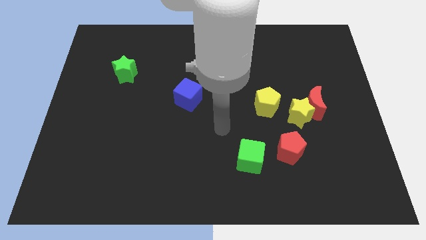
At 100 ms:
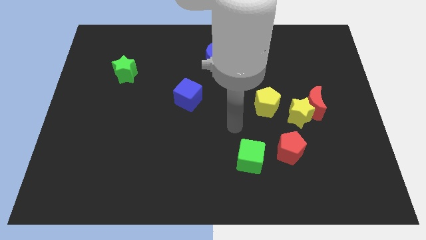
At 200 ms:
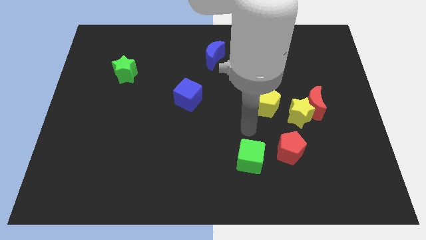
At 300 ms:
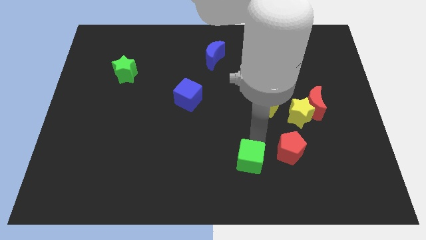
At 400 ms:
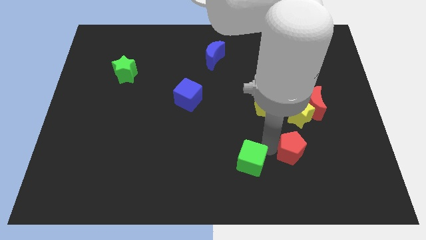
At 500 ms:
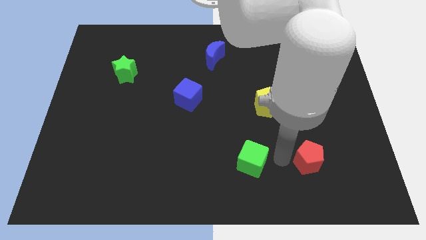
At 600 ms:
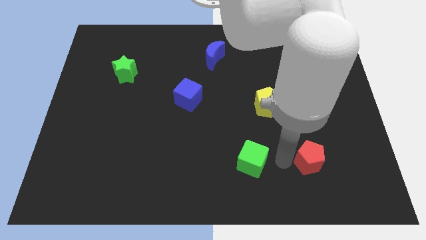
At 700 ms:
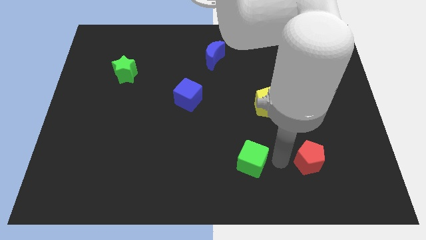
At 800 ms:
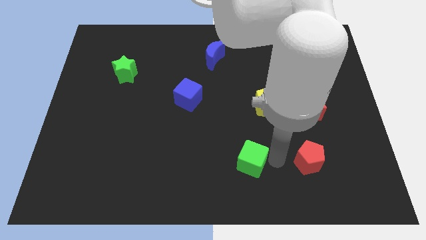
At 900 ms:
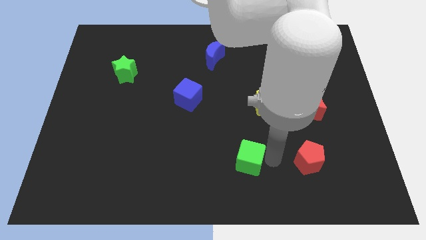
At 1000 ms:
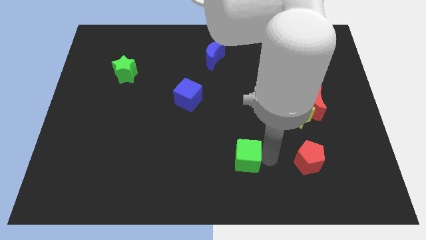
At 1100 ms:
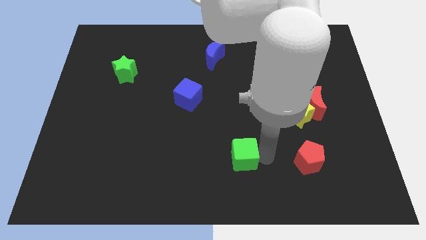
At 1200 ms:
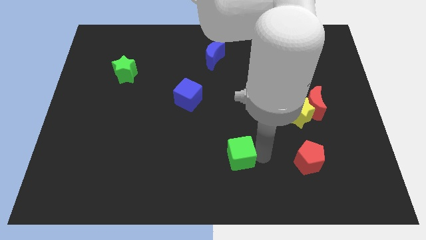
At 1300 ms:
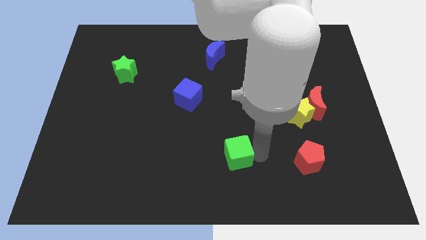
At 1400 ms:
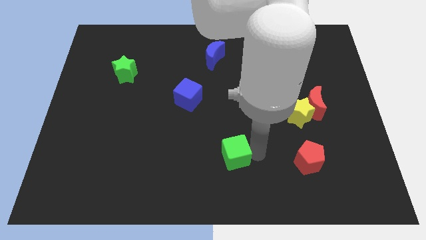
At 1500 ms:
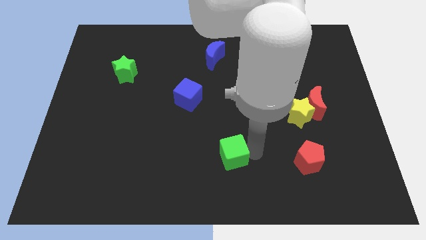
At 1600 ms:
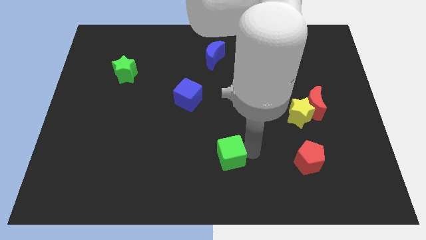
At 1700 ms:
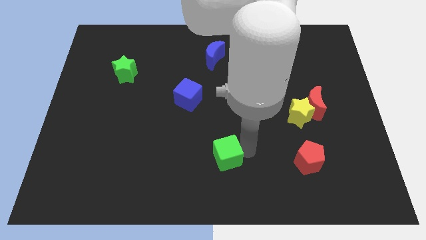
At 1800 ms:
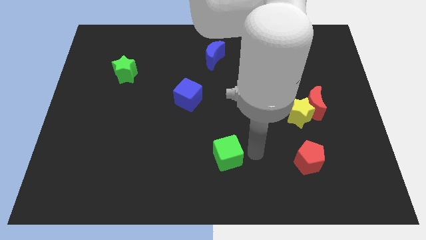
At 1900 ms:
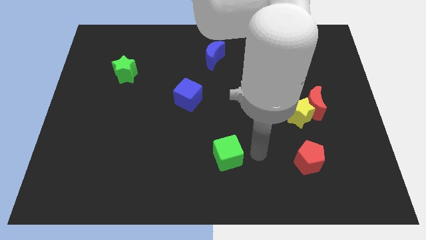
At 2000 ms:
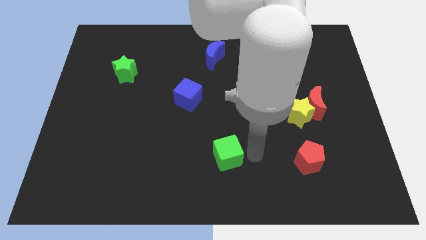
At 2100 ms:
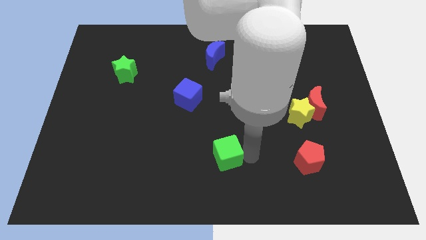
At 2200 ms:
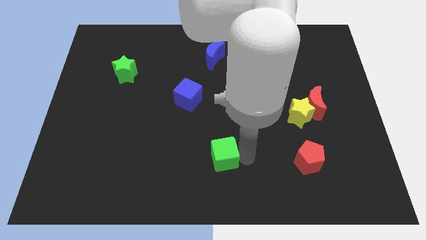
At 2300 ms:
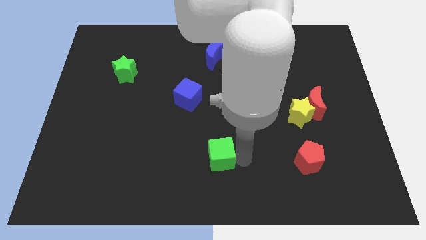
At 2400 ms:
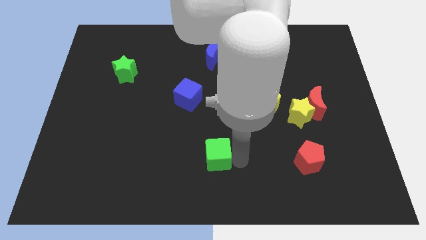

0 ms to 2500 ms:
push the green cube a little bit to the left

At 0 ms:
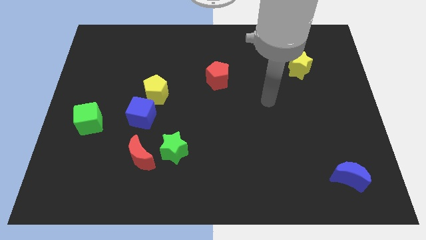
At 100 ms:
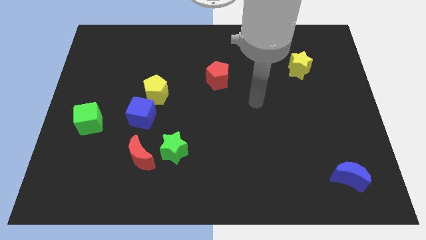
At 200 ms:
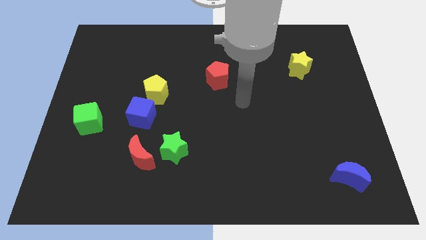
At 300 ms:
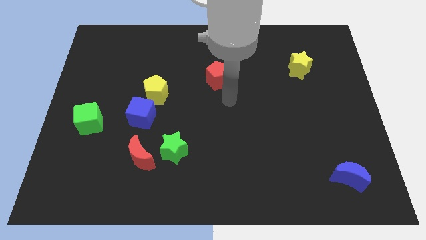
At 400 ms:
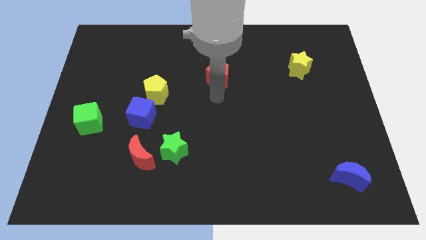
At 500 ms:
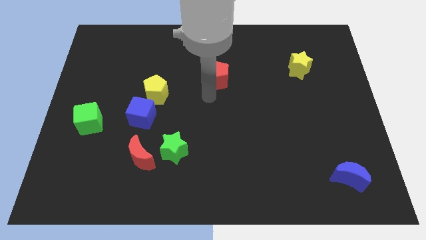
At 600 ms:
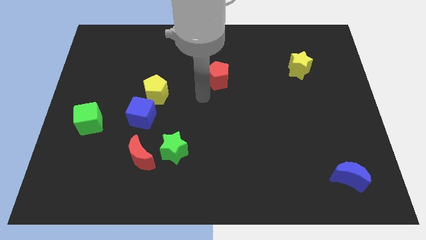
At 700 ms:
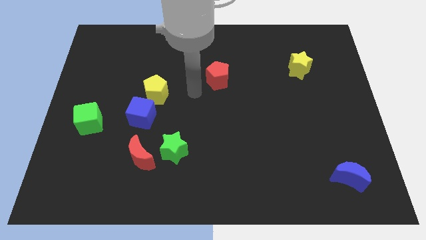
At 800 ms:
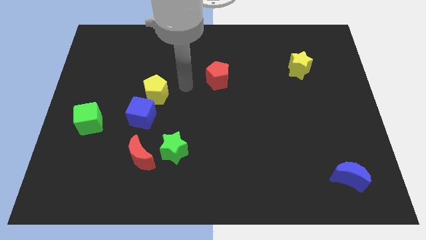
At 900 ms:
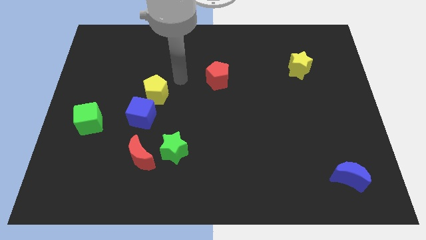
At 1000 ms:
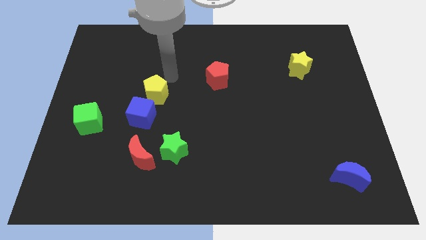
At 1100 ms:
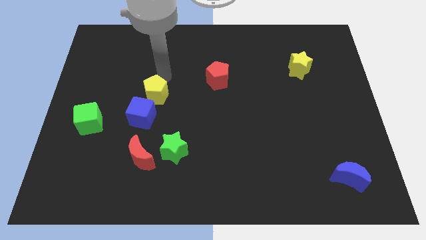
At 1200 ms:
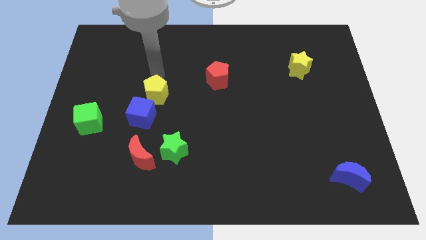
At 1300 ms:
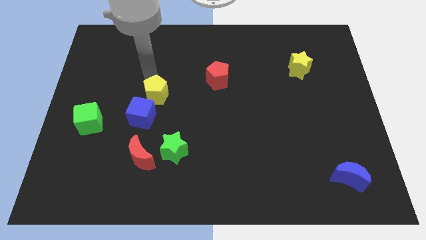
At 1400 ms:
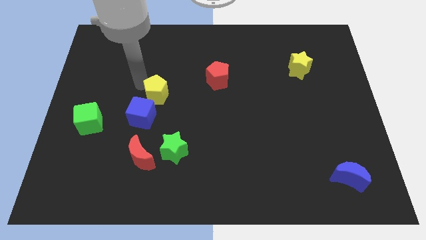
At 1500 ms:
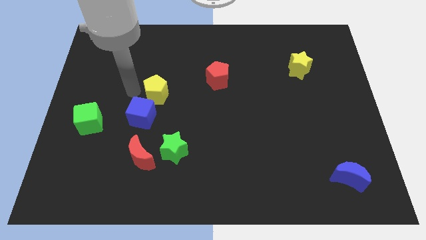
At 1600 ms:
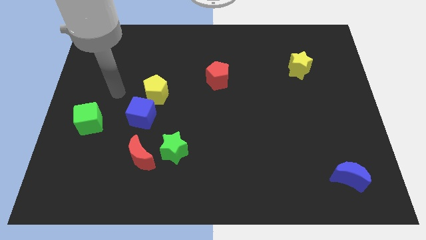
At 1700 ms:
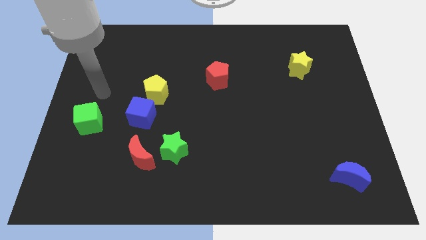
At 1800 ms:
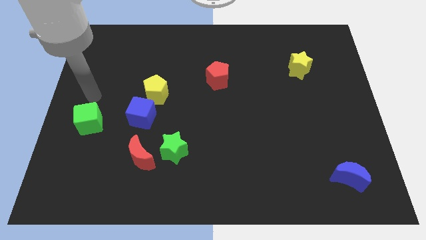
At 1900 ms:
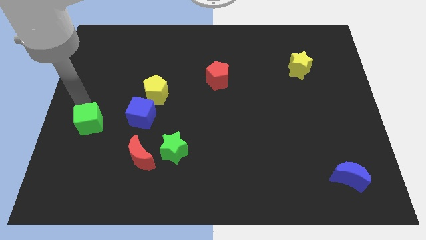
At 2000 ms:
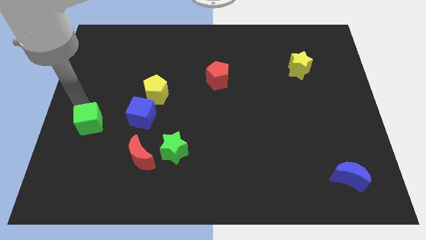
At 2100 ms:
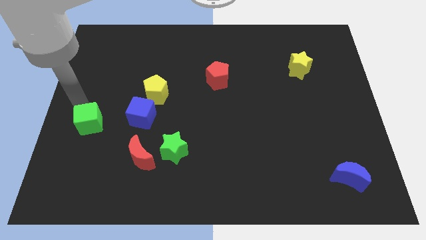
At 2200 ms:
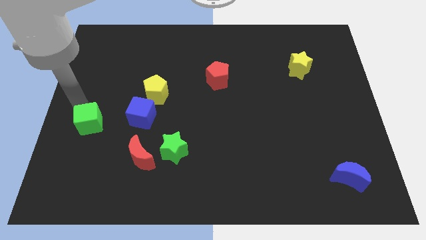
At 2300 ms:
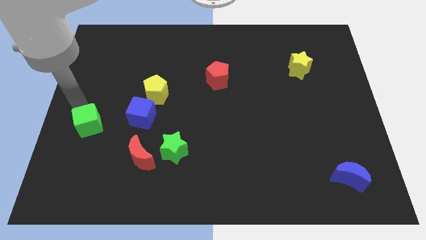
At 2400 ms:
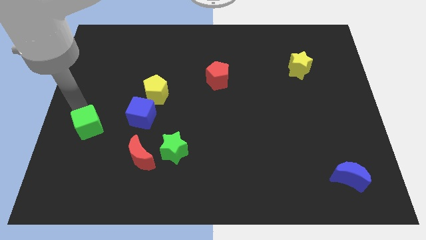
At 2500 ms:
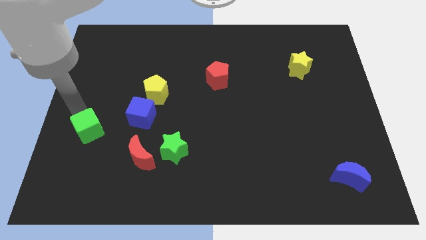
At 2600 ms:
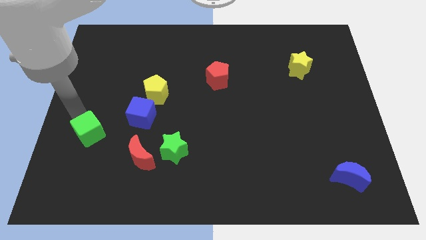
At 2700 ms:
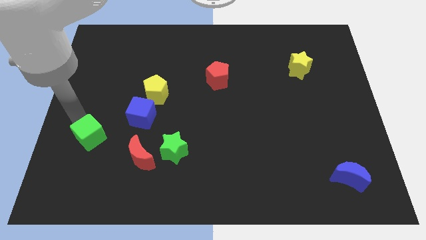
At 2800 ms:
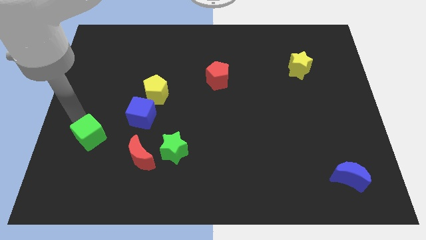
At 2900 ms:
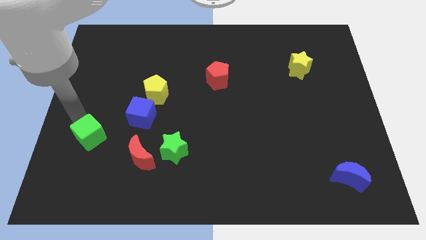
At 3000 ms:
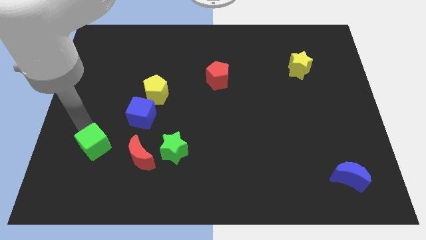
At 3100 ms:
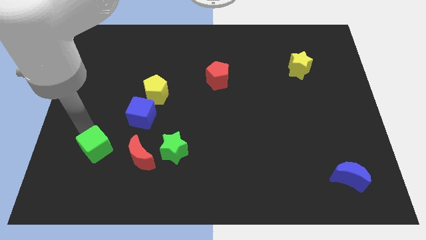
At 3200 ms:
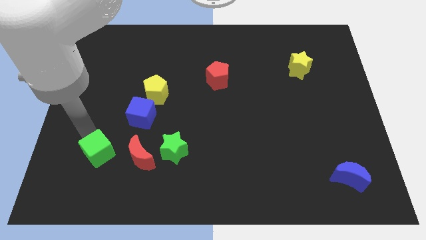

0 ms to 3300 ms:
slightly push the green cube diagonally down and to the right

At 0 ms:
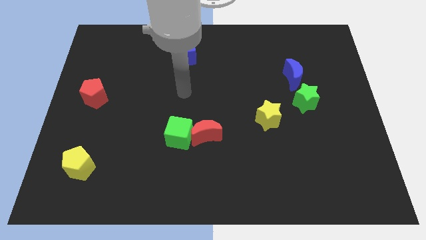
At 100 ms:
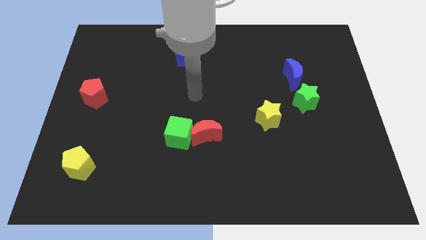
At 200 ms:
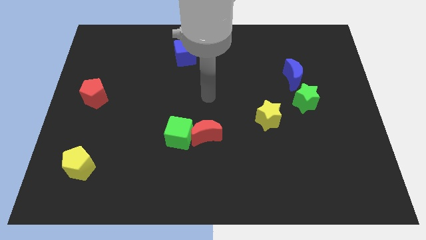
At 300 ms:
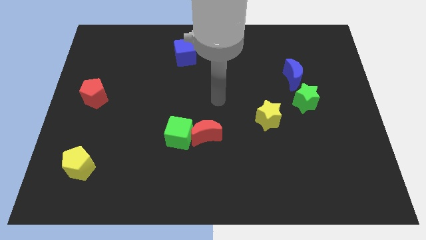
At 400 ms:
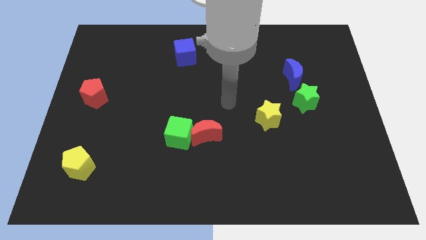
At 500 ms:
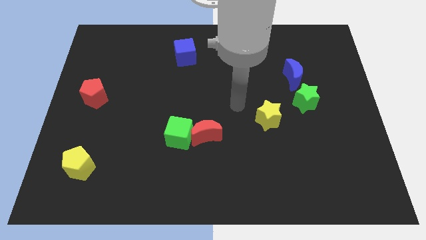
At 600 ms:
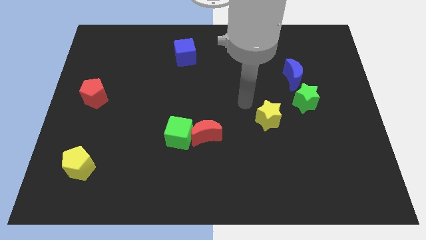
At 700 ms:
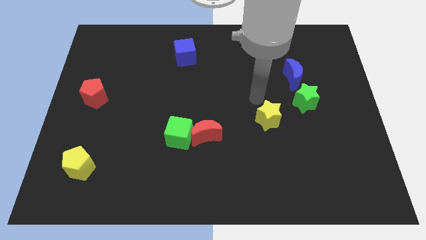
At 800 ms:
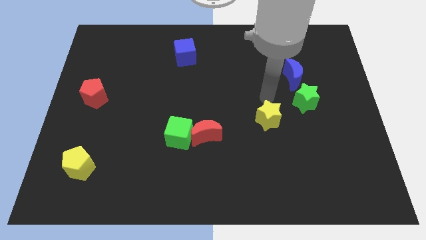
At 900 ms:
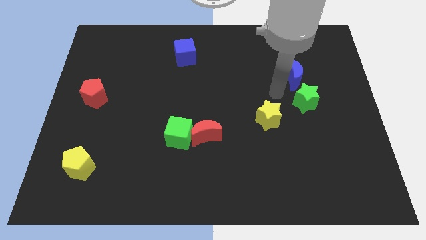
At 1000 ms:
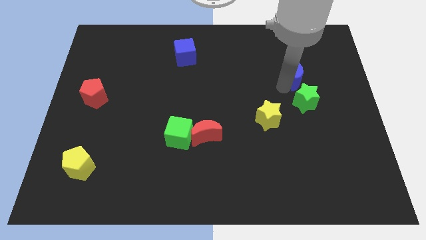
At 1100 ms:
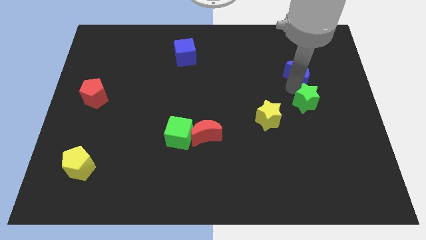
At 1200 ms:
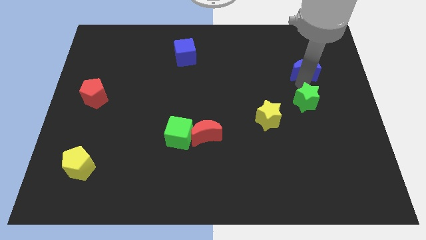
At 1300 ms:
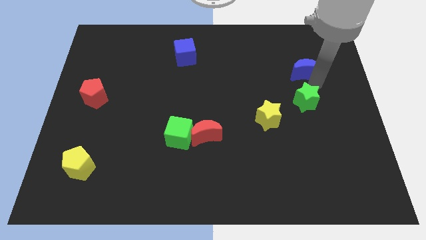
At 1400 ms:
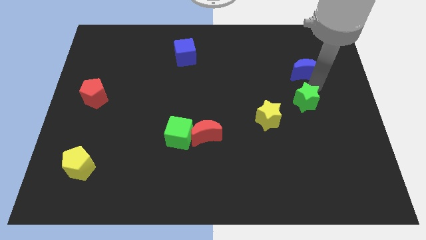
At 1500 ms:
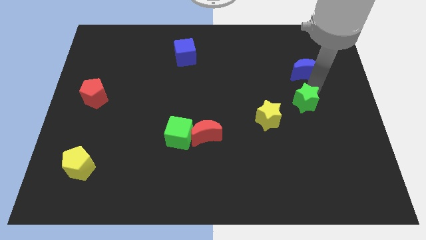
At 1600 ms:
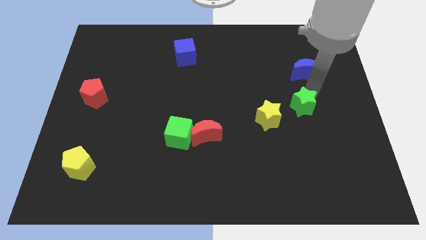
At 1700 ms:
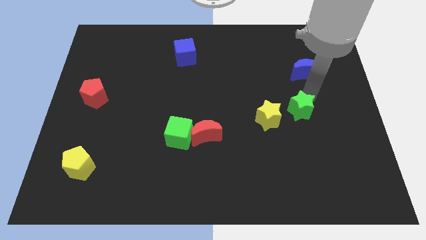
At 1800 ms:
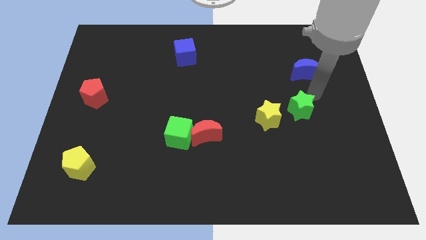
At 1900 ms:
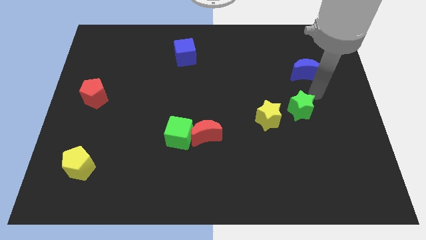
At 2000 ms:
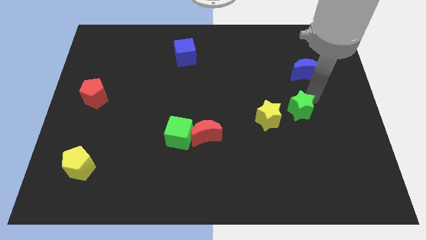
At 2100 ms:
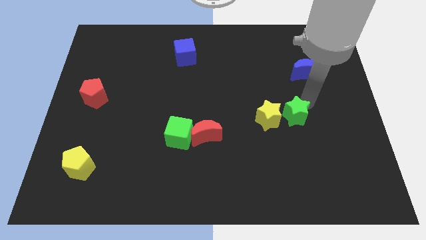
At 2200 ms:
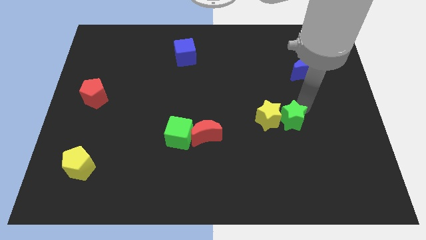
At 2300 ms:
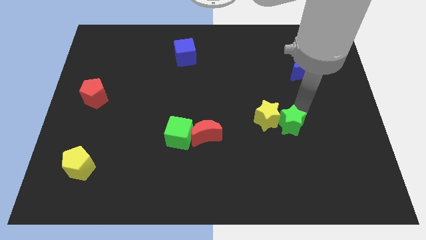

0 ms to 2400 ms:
push the green star a little diagonally down and left
